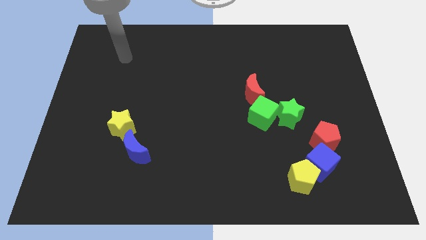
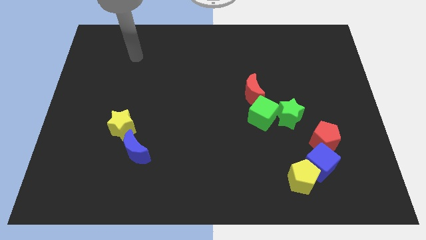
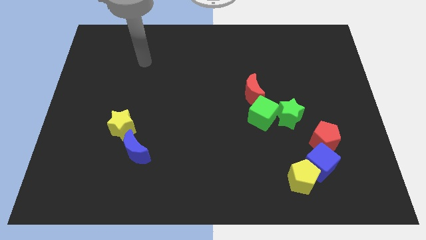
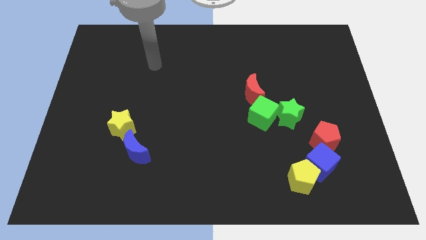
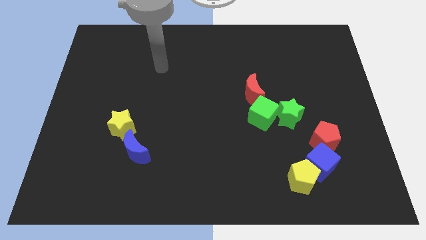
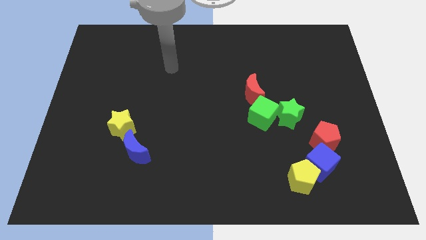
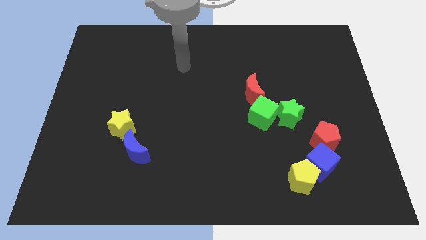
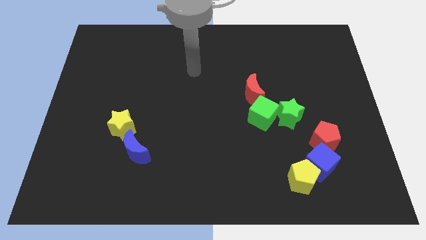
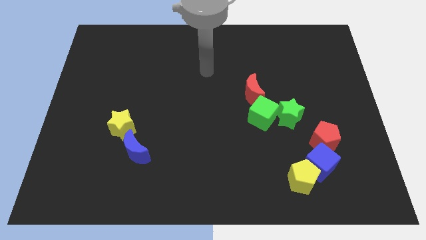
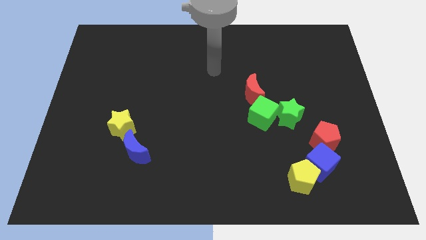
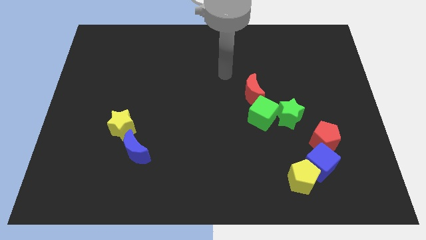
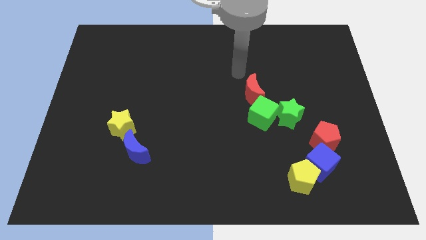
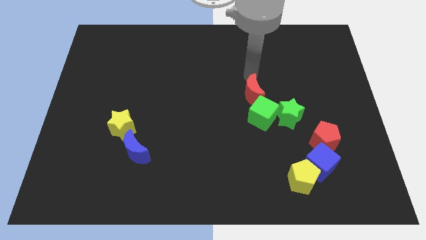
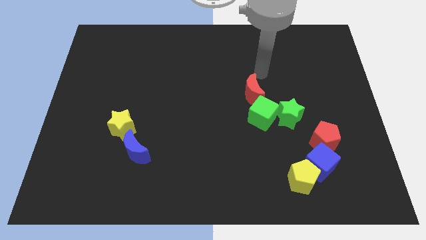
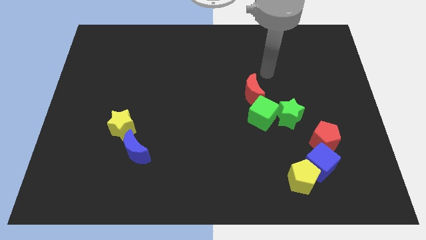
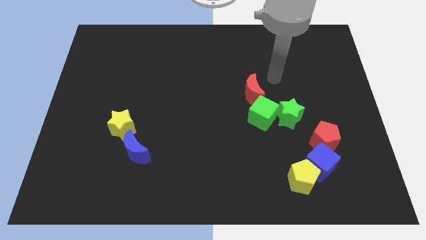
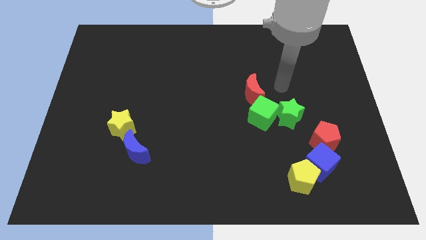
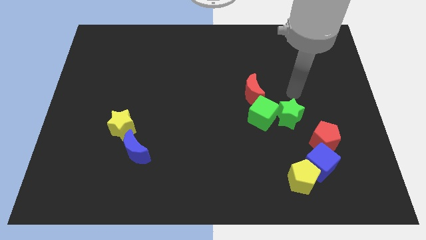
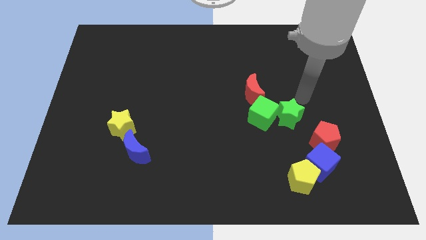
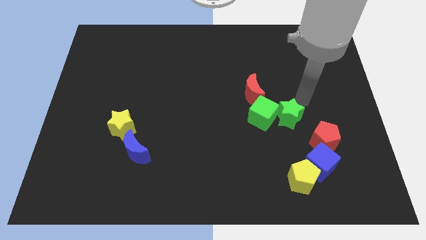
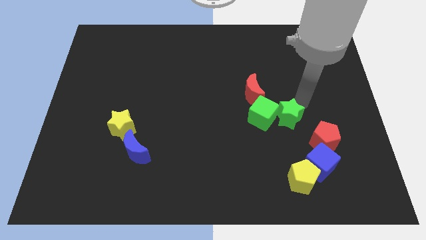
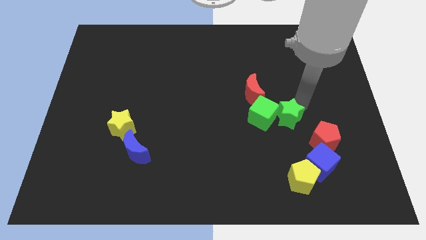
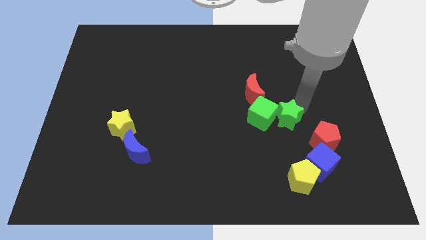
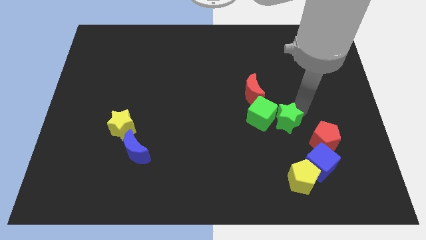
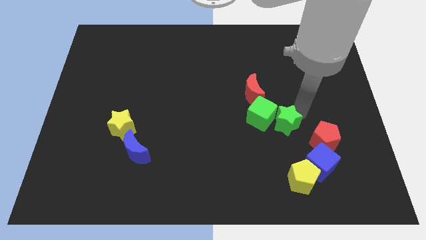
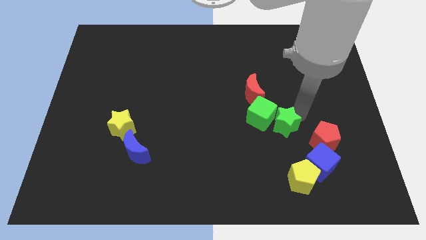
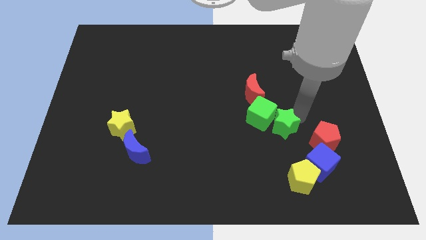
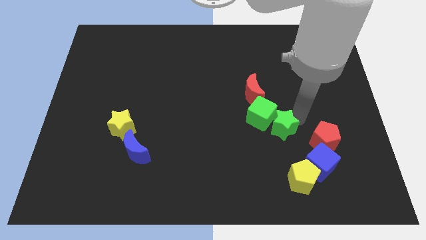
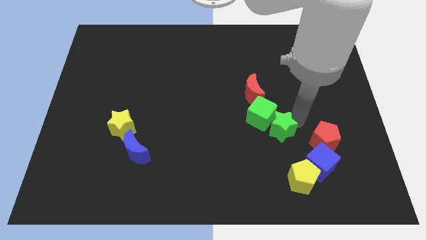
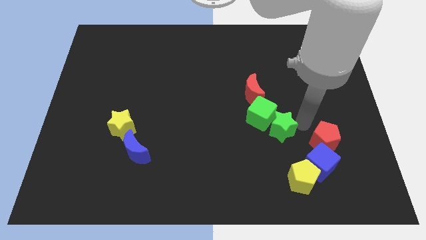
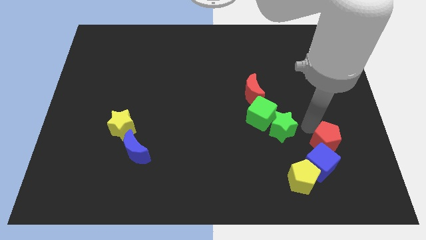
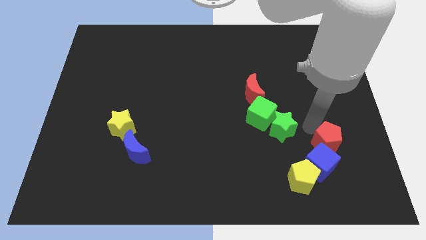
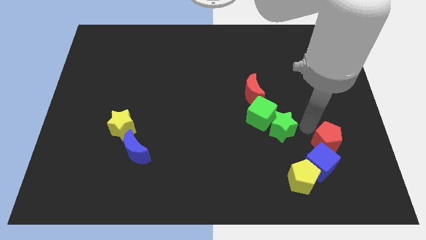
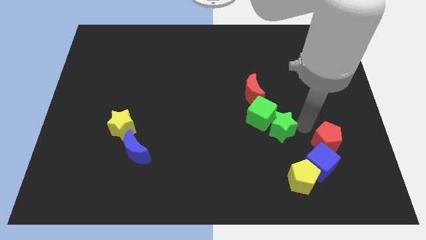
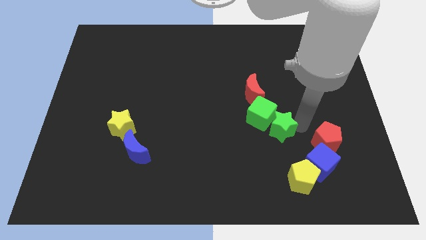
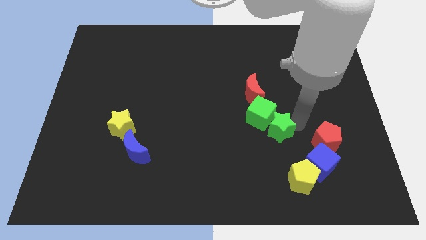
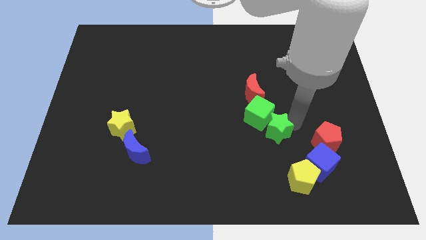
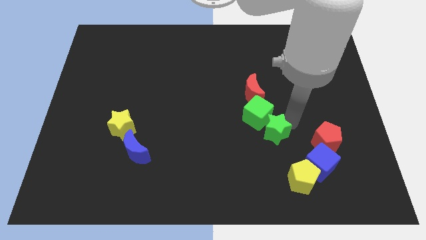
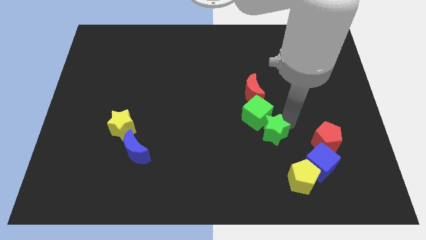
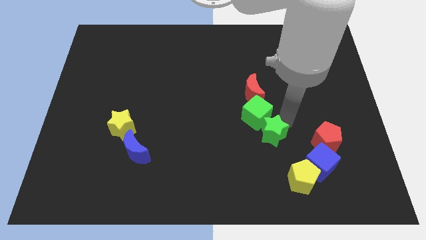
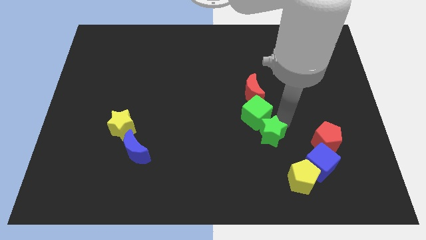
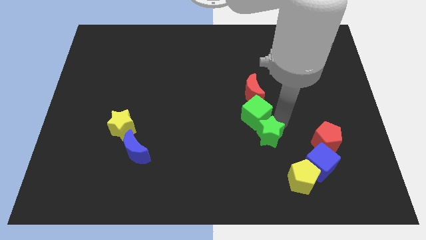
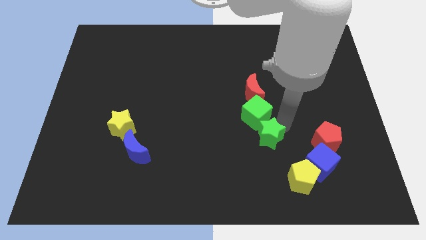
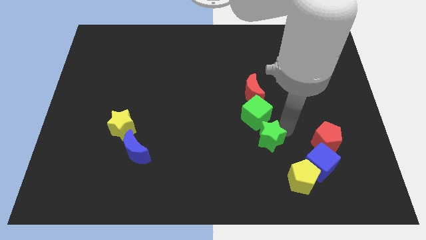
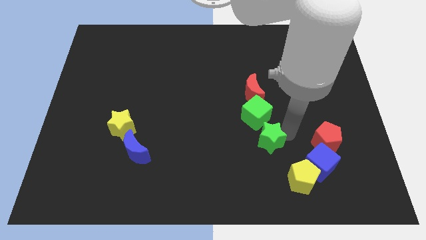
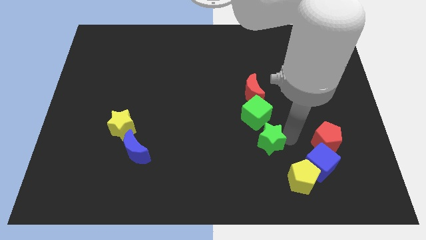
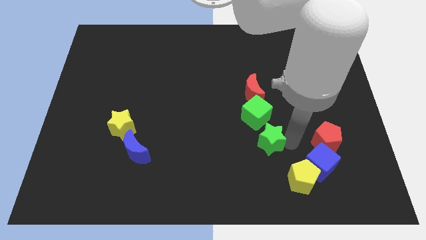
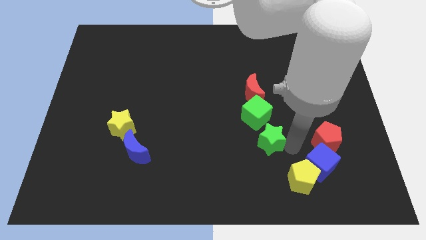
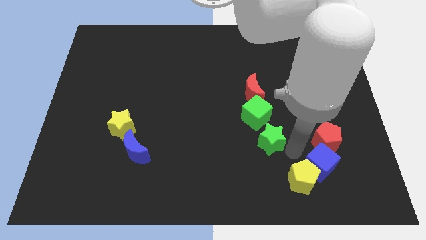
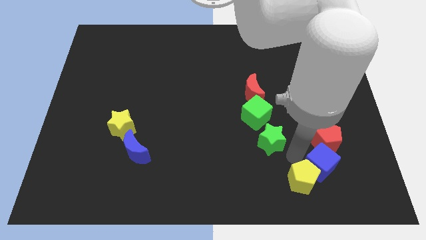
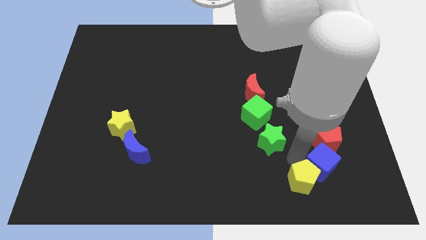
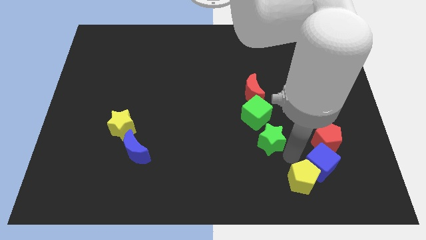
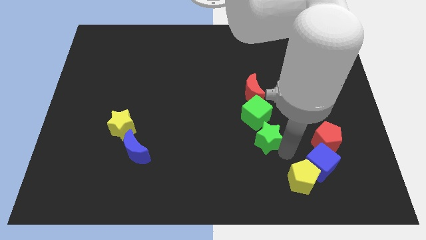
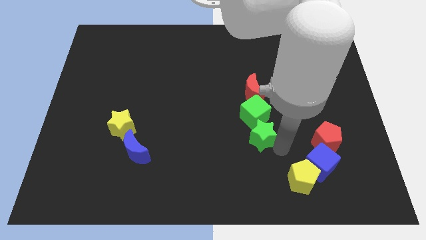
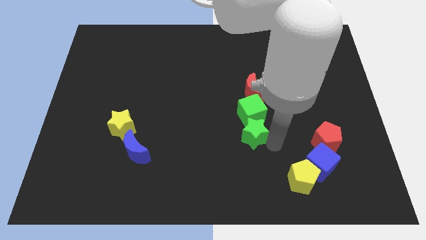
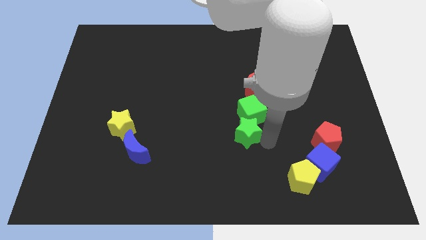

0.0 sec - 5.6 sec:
put the green star to the middle

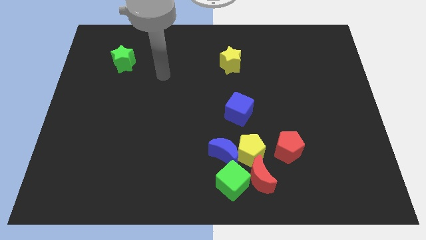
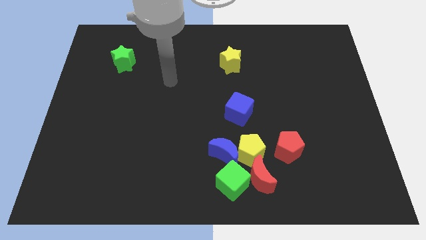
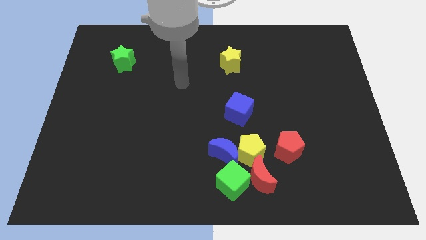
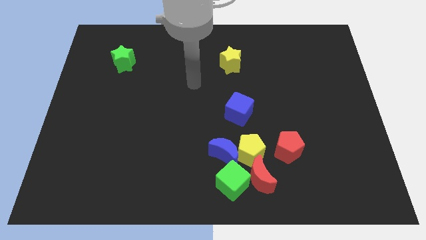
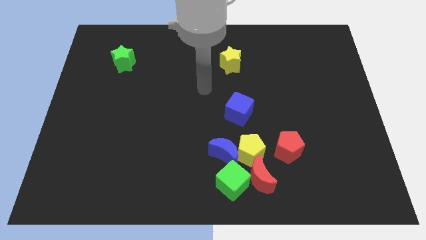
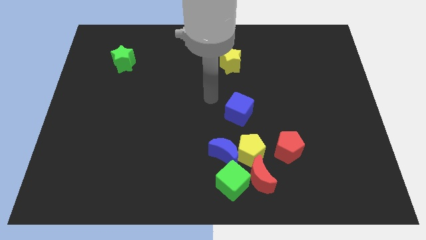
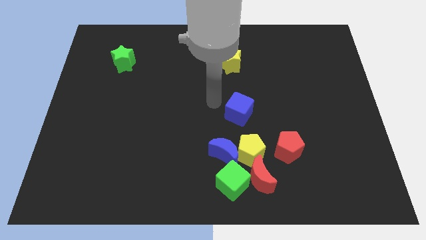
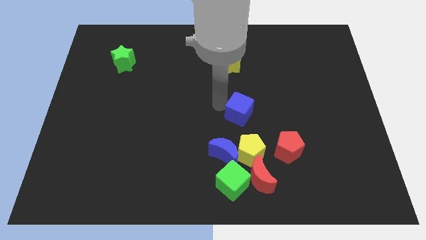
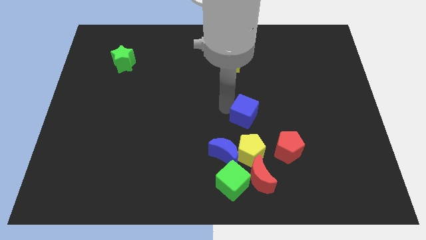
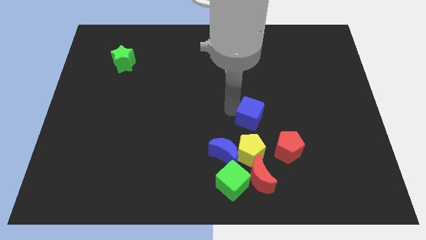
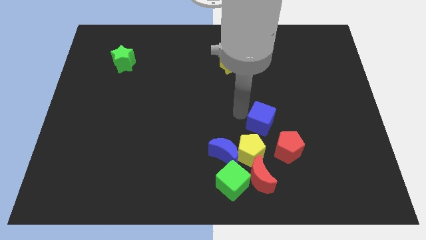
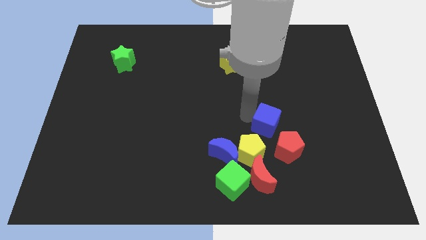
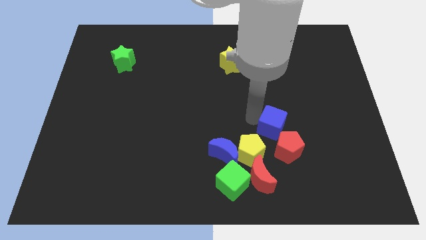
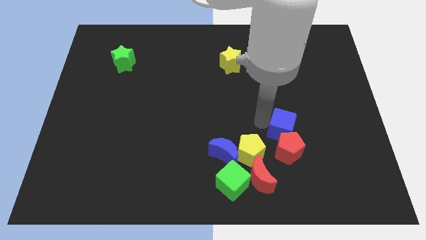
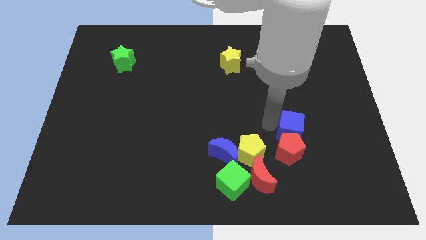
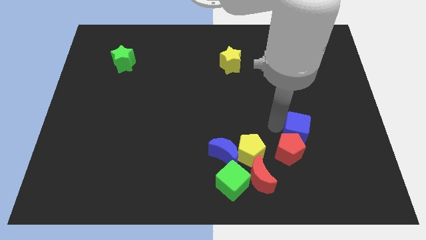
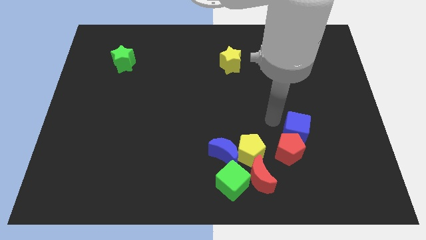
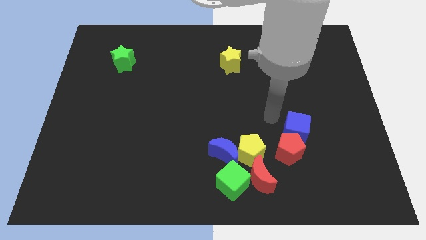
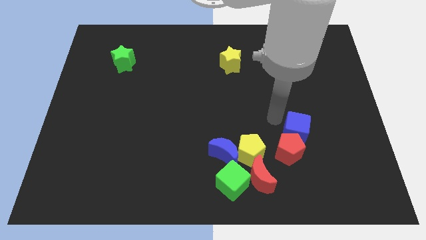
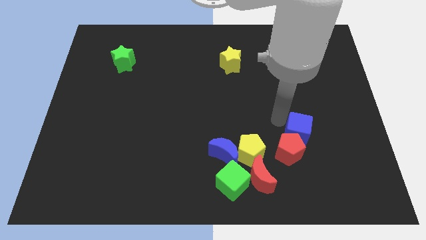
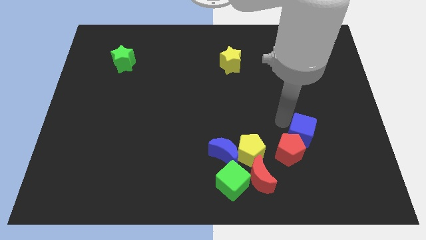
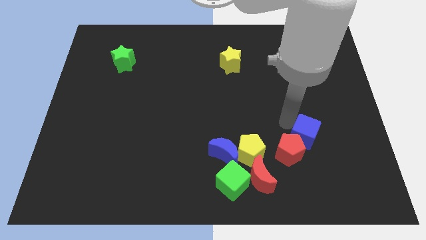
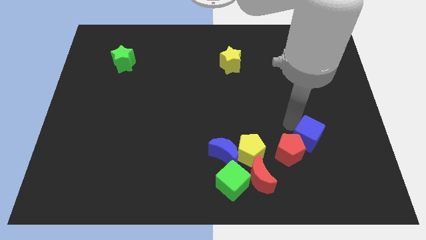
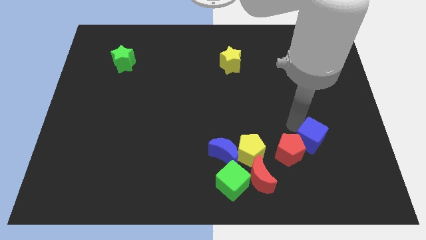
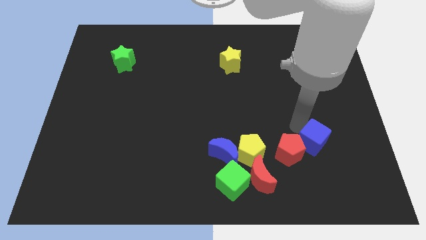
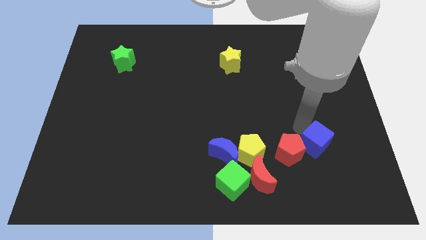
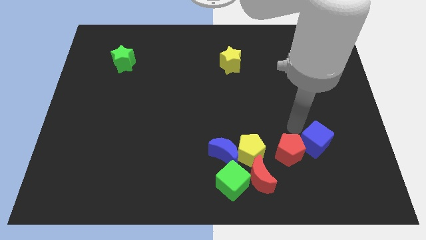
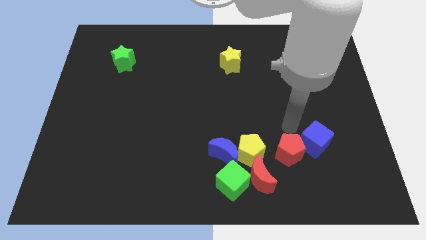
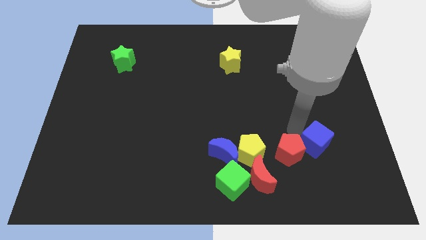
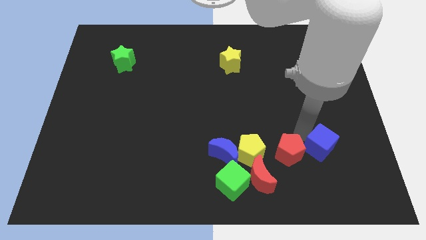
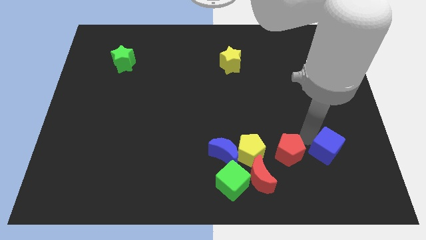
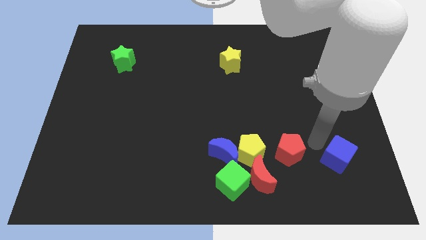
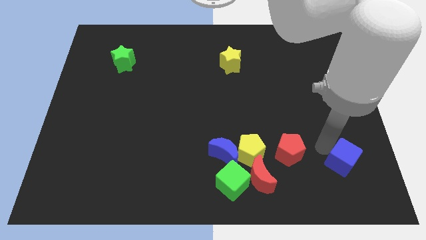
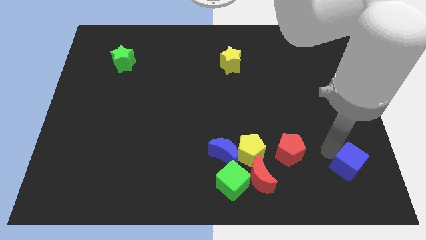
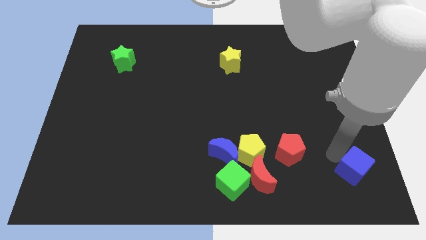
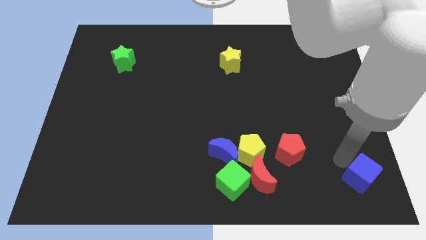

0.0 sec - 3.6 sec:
slide the blue cube to the bottom right of the board
